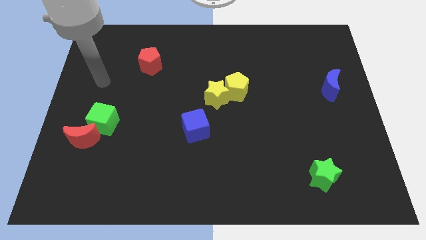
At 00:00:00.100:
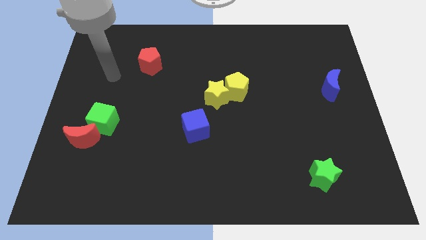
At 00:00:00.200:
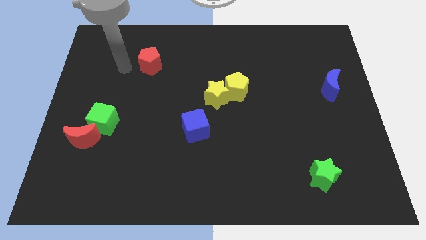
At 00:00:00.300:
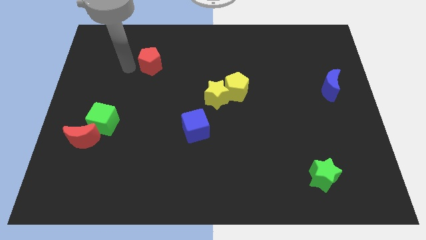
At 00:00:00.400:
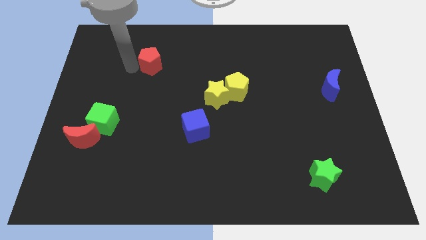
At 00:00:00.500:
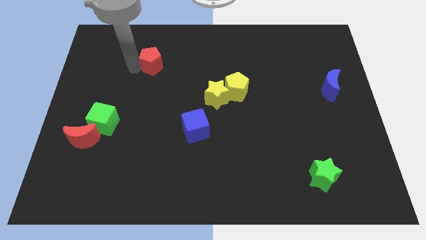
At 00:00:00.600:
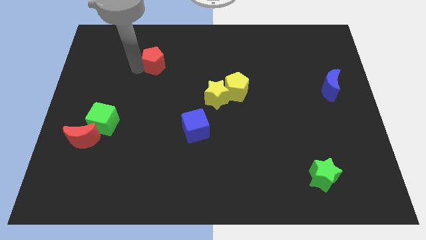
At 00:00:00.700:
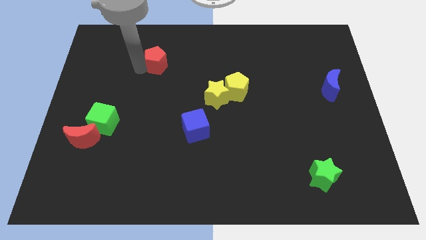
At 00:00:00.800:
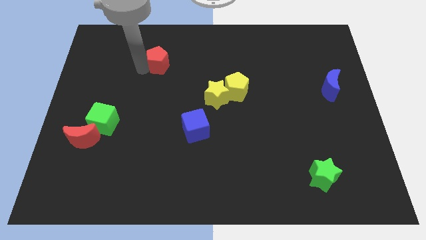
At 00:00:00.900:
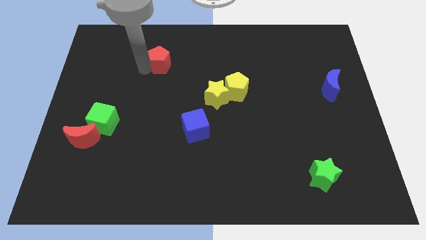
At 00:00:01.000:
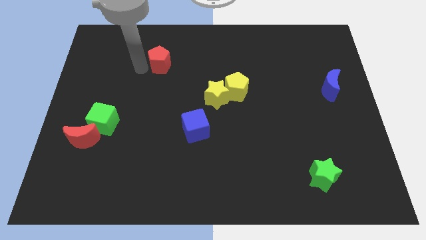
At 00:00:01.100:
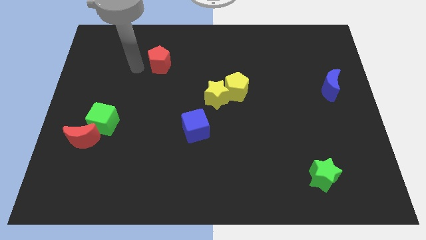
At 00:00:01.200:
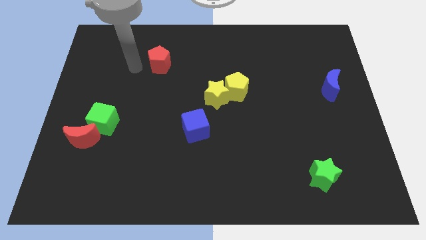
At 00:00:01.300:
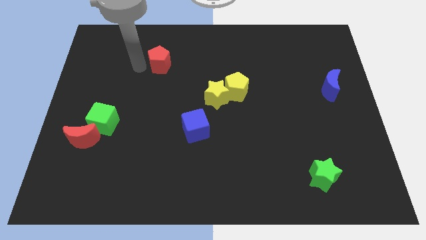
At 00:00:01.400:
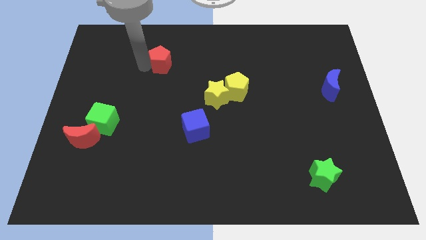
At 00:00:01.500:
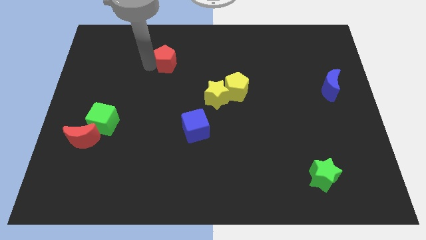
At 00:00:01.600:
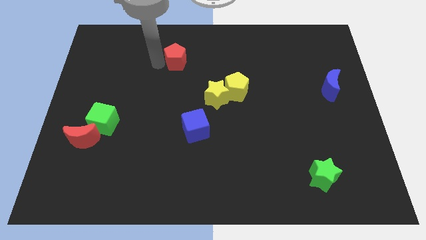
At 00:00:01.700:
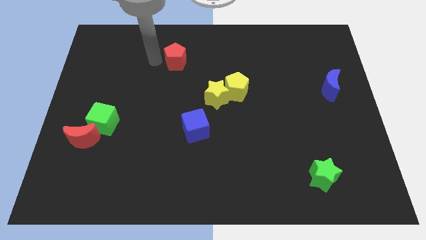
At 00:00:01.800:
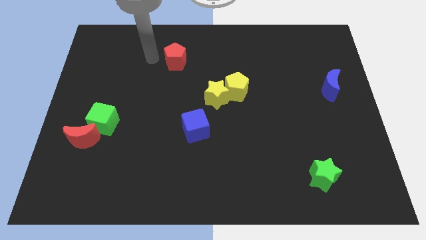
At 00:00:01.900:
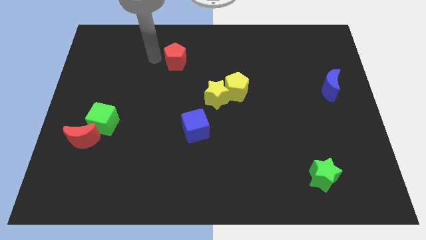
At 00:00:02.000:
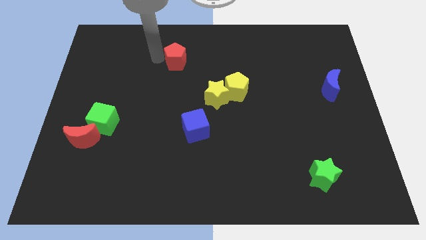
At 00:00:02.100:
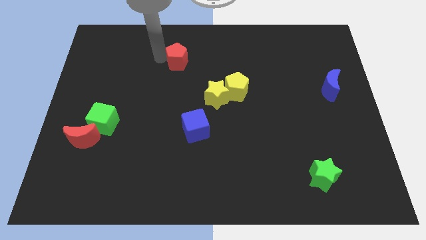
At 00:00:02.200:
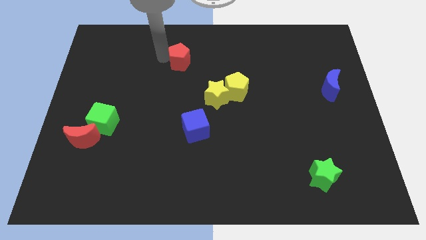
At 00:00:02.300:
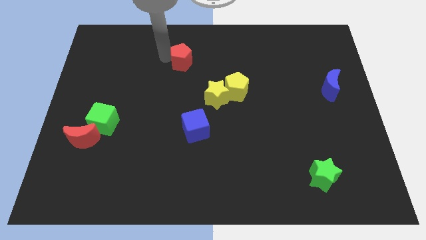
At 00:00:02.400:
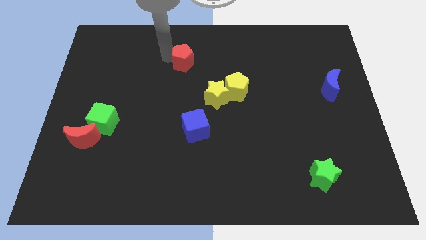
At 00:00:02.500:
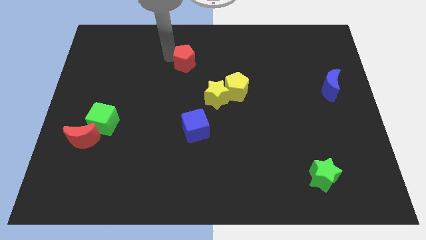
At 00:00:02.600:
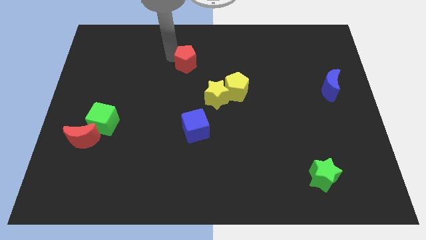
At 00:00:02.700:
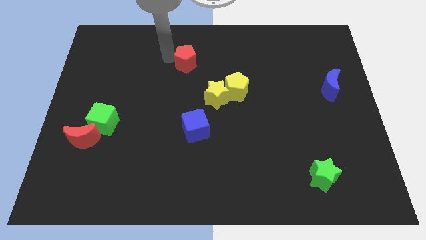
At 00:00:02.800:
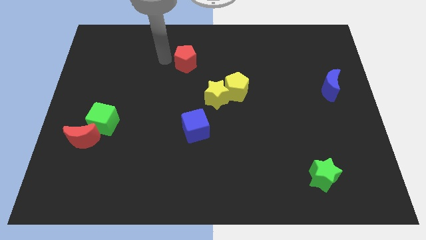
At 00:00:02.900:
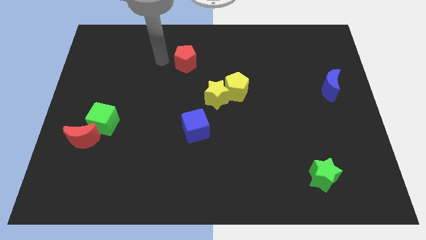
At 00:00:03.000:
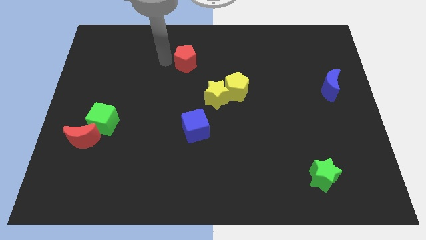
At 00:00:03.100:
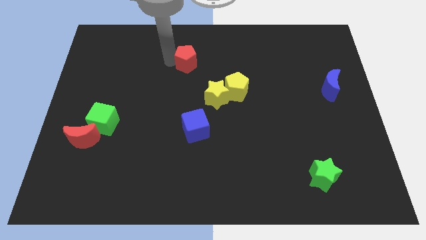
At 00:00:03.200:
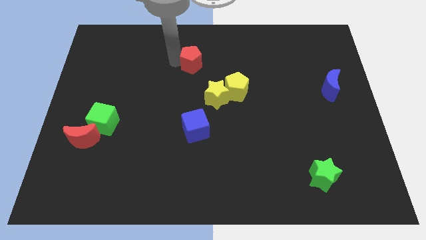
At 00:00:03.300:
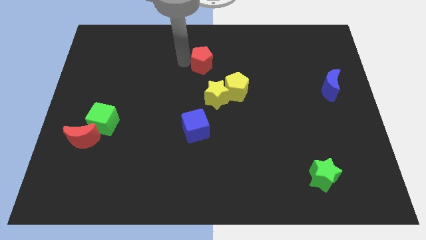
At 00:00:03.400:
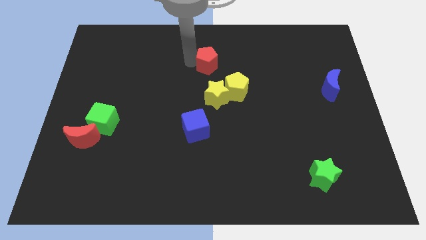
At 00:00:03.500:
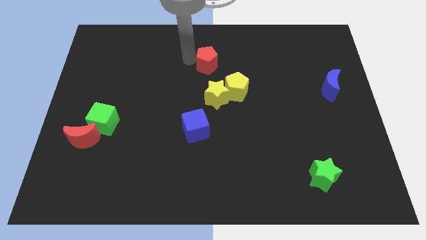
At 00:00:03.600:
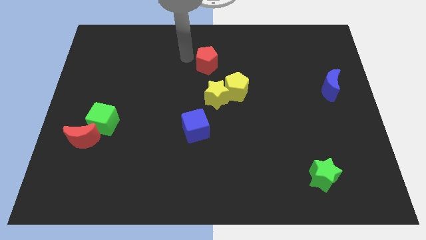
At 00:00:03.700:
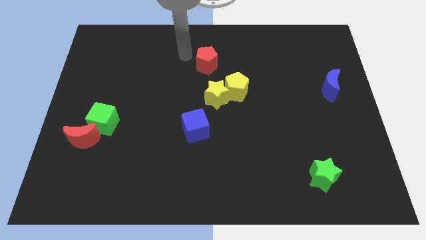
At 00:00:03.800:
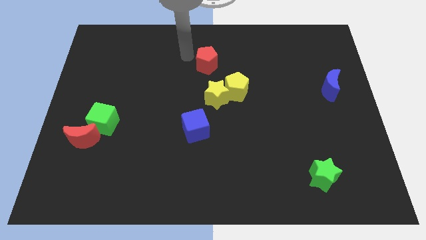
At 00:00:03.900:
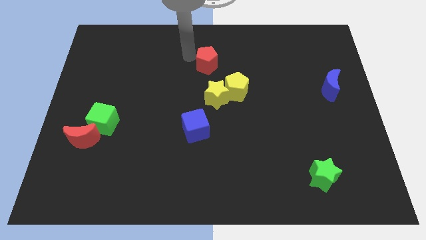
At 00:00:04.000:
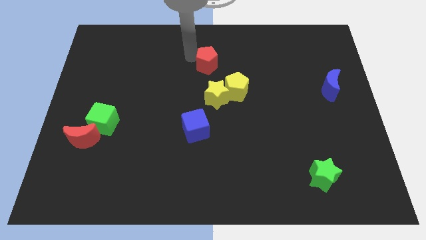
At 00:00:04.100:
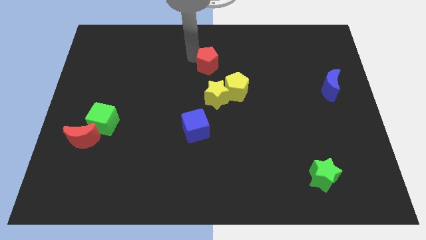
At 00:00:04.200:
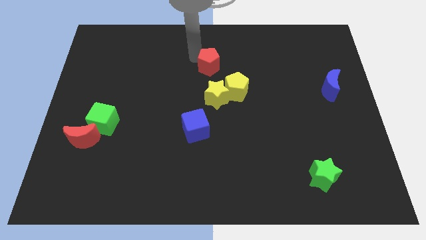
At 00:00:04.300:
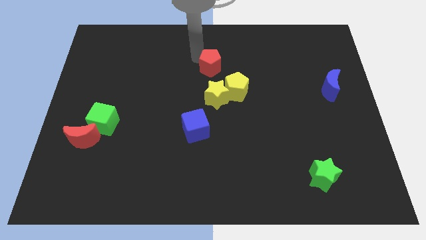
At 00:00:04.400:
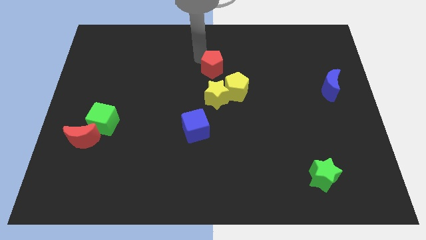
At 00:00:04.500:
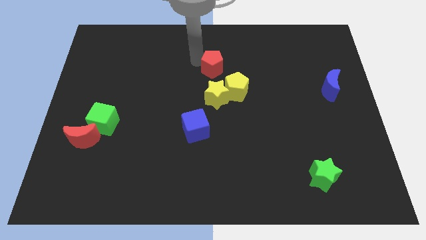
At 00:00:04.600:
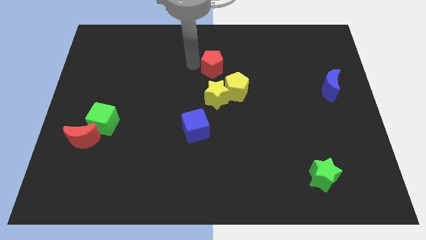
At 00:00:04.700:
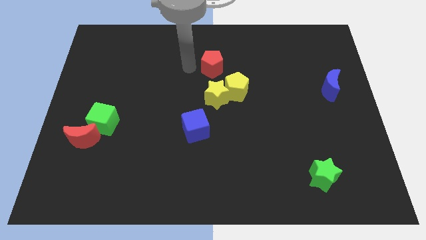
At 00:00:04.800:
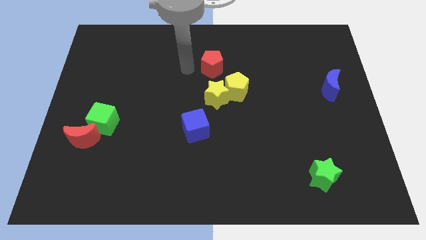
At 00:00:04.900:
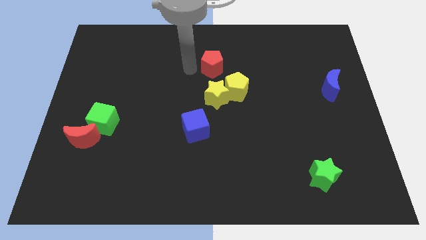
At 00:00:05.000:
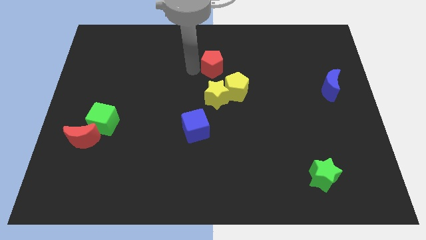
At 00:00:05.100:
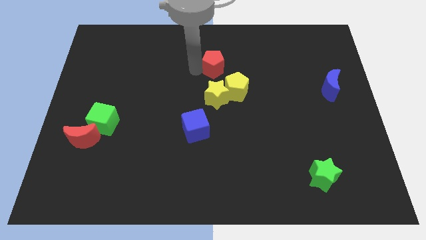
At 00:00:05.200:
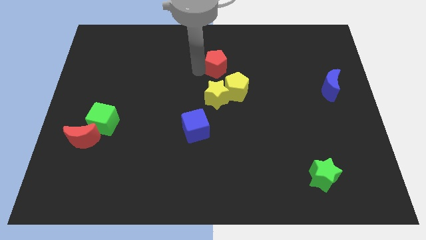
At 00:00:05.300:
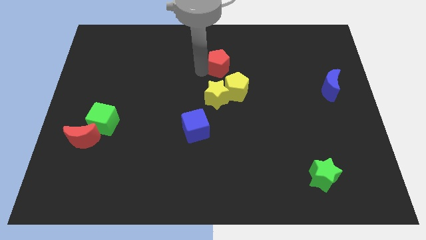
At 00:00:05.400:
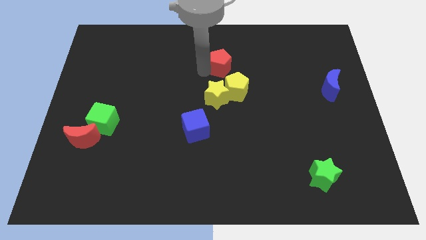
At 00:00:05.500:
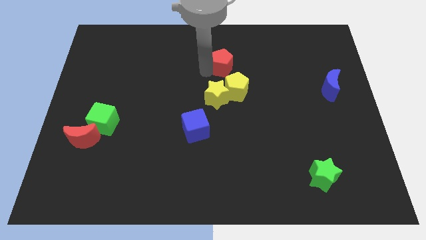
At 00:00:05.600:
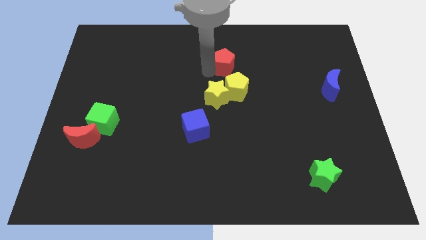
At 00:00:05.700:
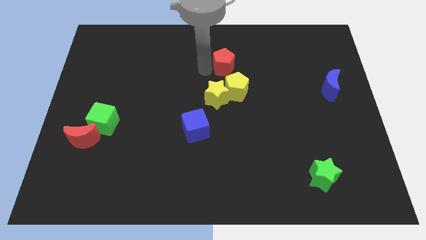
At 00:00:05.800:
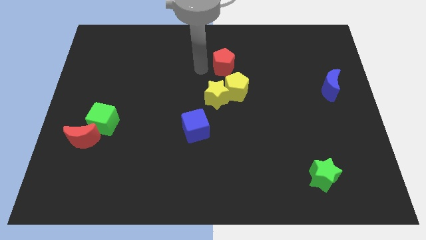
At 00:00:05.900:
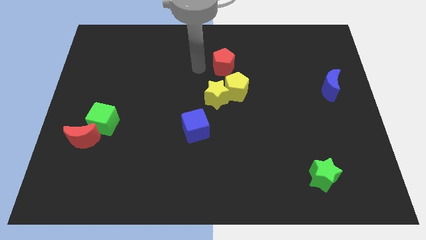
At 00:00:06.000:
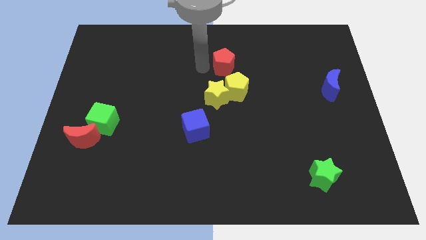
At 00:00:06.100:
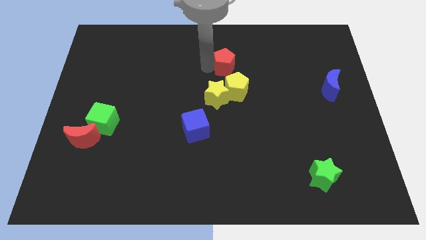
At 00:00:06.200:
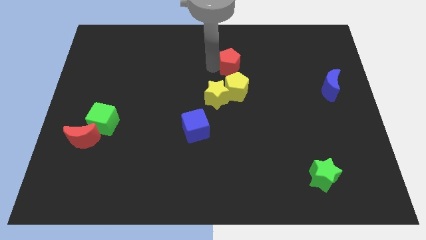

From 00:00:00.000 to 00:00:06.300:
slide the red pentagon right

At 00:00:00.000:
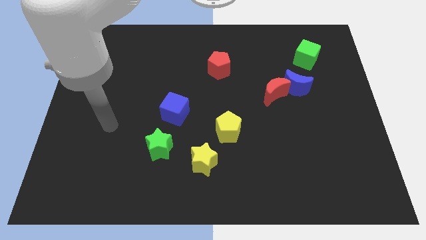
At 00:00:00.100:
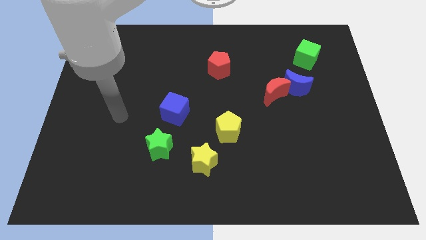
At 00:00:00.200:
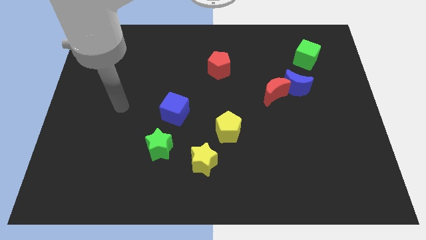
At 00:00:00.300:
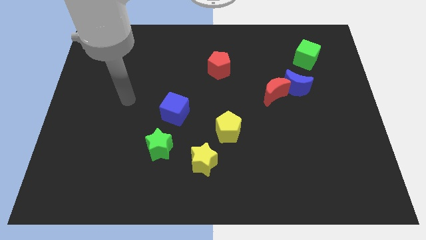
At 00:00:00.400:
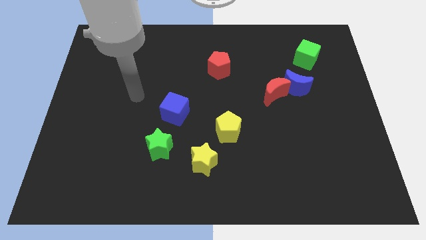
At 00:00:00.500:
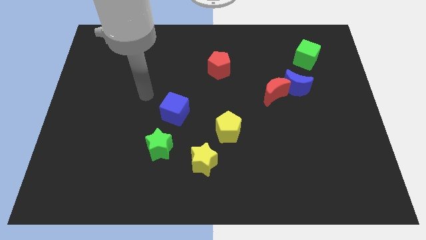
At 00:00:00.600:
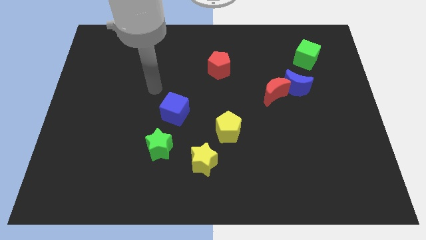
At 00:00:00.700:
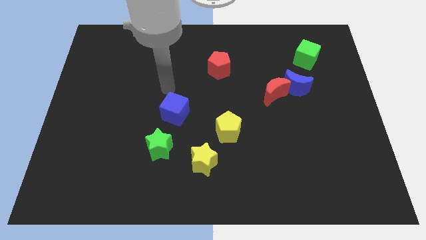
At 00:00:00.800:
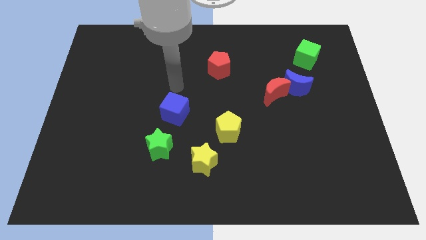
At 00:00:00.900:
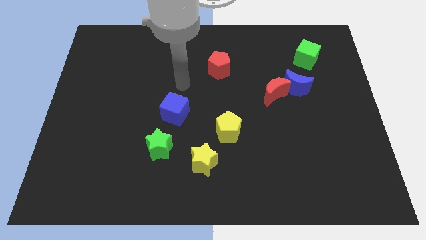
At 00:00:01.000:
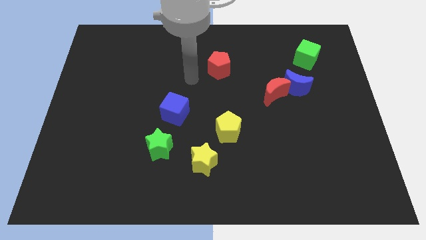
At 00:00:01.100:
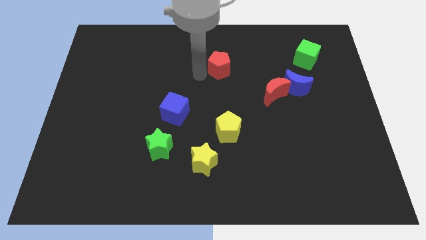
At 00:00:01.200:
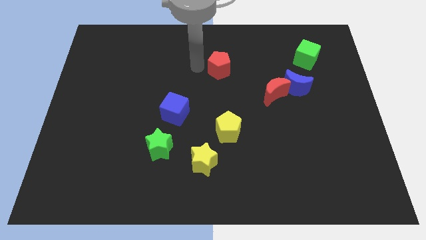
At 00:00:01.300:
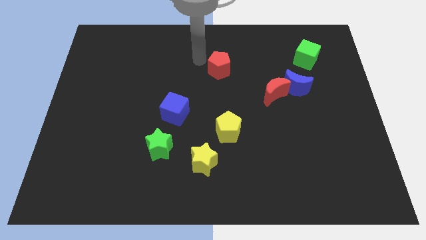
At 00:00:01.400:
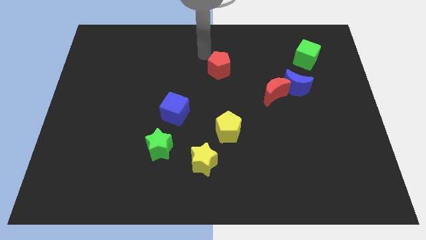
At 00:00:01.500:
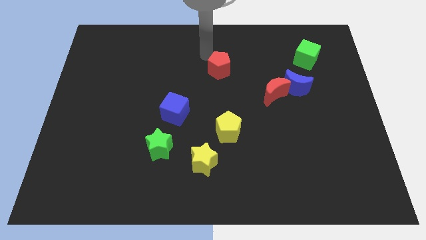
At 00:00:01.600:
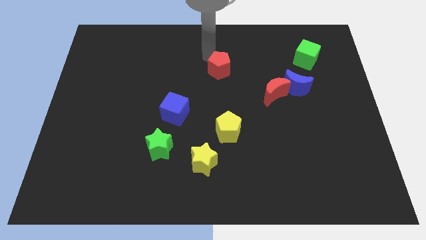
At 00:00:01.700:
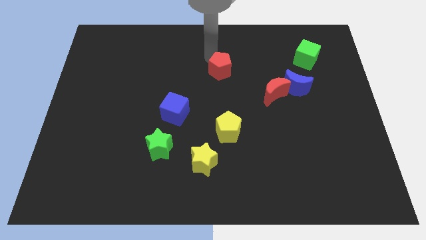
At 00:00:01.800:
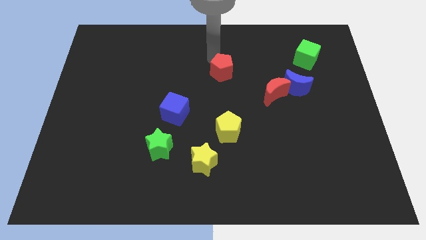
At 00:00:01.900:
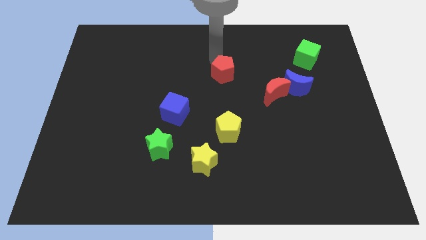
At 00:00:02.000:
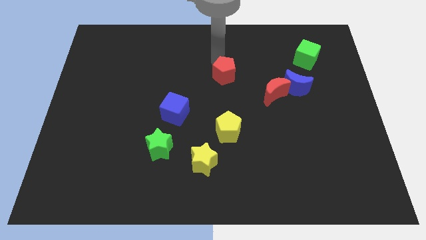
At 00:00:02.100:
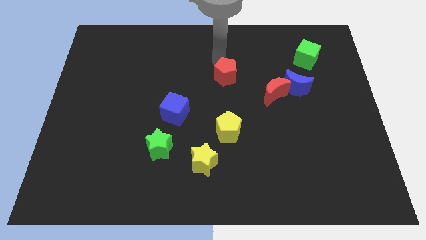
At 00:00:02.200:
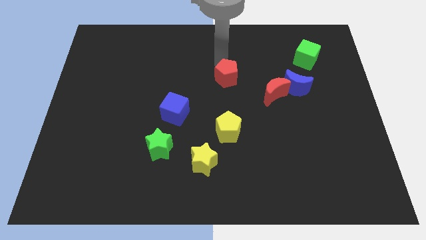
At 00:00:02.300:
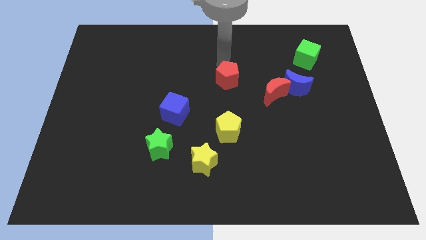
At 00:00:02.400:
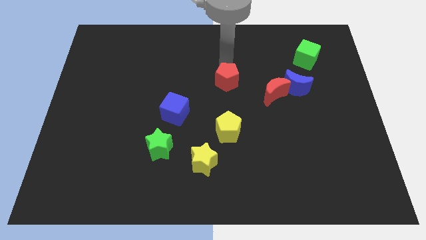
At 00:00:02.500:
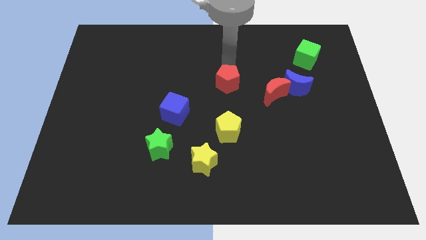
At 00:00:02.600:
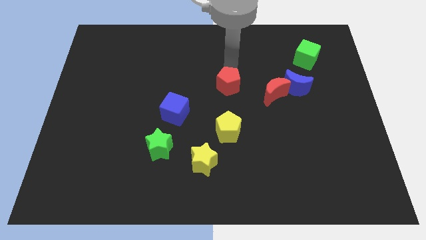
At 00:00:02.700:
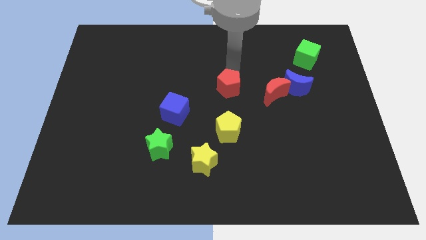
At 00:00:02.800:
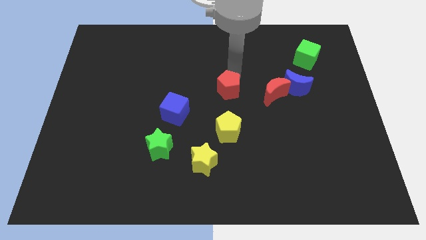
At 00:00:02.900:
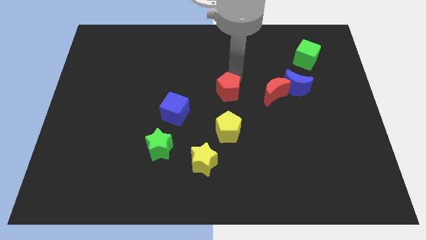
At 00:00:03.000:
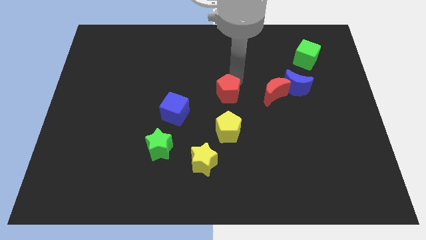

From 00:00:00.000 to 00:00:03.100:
slide the red pentagon slightly downwards and to the right
